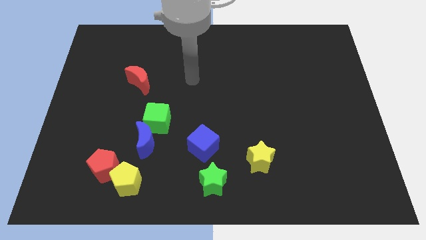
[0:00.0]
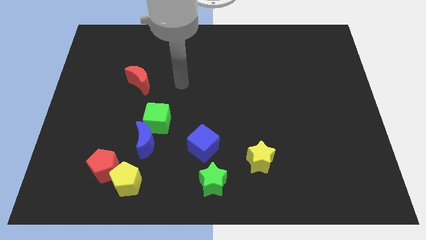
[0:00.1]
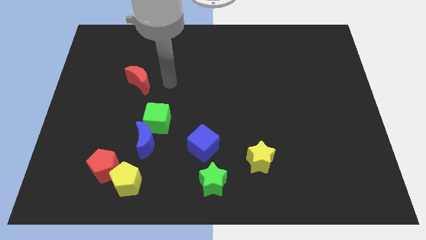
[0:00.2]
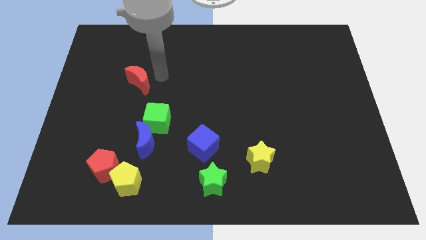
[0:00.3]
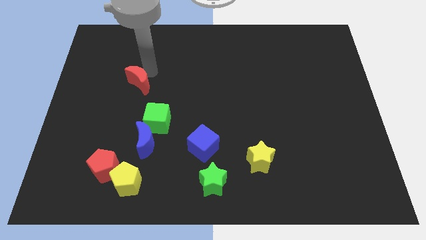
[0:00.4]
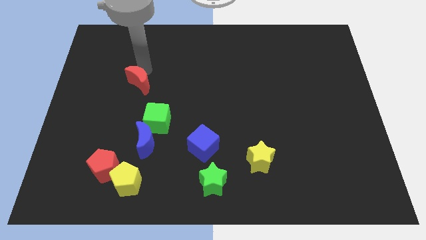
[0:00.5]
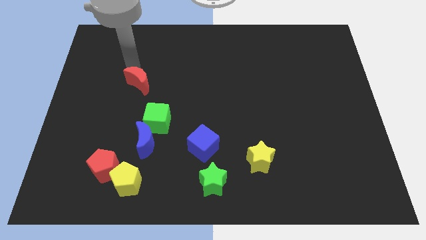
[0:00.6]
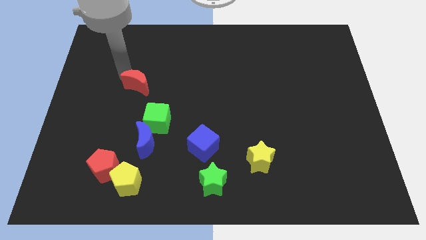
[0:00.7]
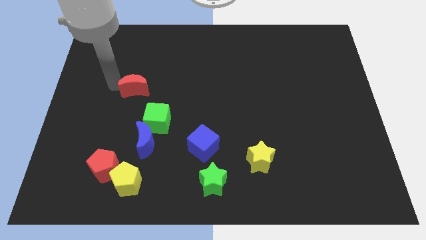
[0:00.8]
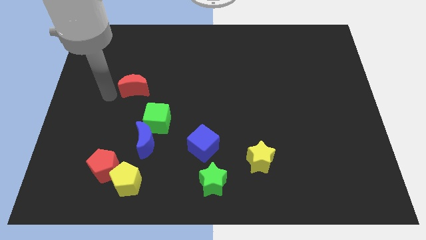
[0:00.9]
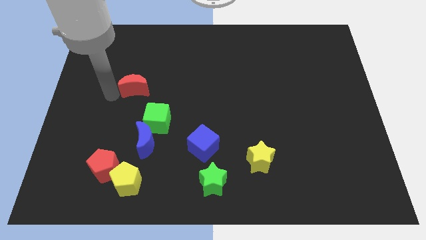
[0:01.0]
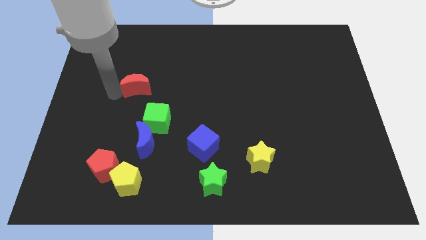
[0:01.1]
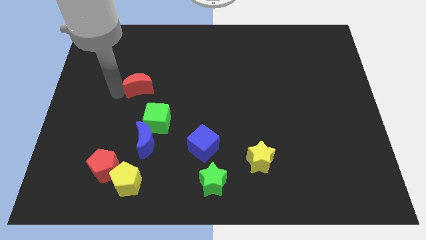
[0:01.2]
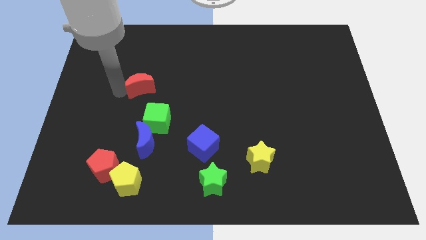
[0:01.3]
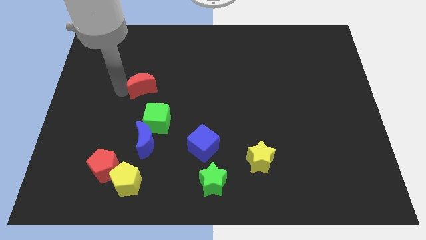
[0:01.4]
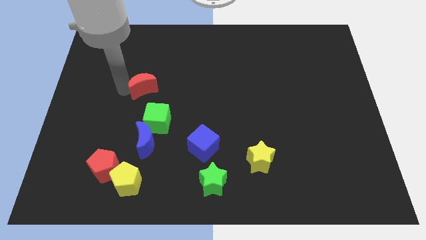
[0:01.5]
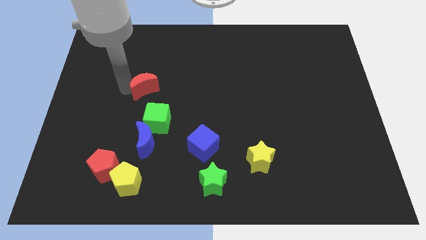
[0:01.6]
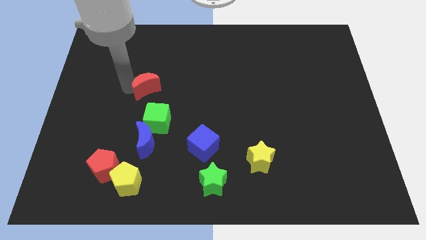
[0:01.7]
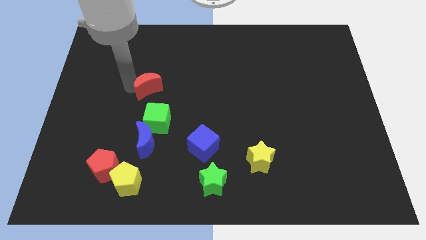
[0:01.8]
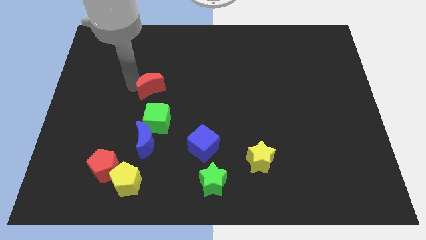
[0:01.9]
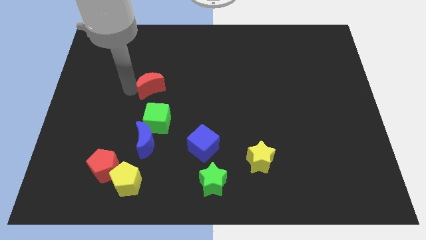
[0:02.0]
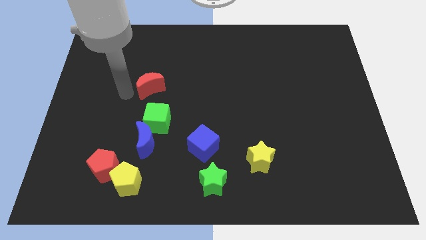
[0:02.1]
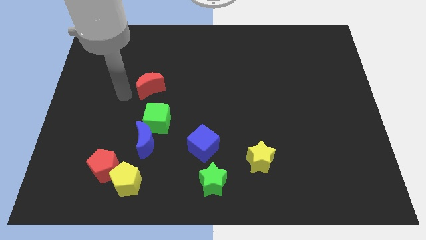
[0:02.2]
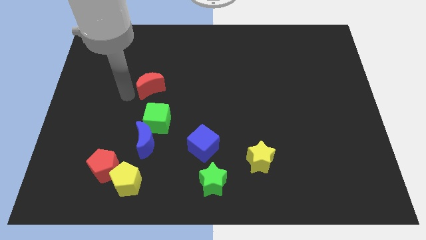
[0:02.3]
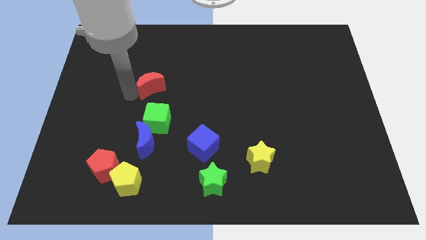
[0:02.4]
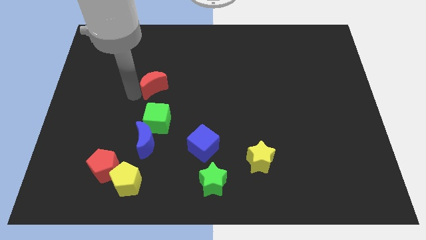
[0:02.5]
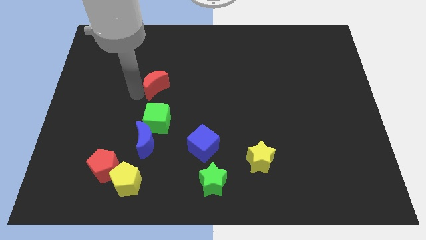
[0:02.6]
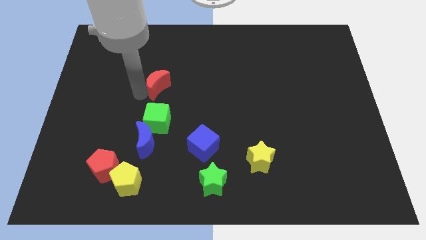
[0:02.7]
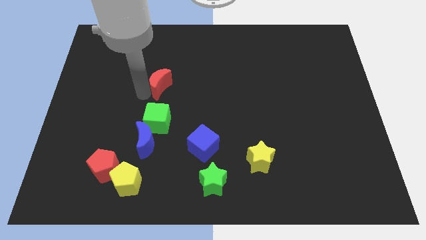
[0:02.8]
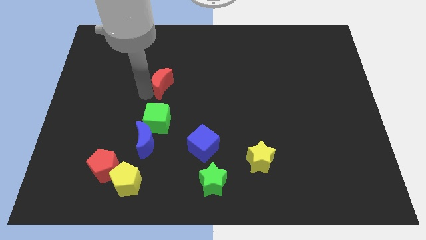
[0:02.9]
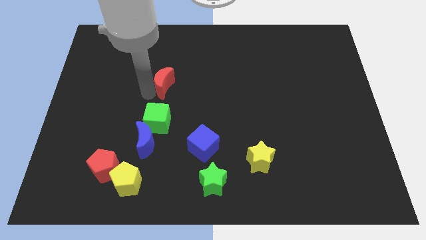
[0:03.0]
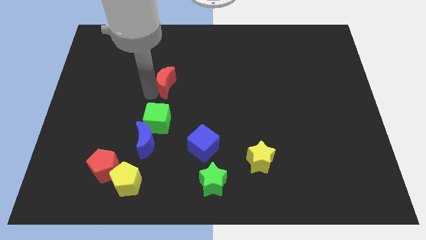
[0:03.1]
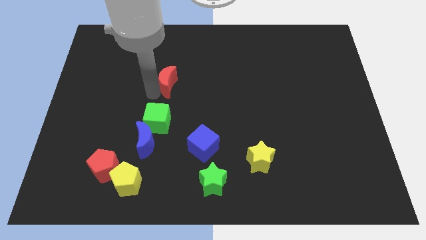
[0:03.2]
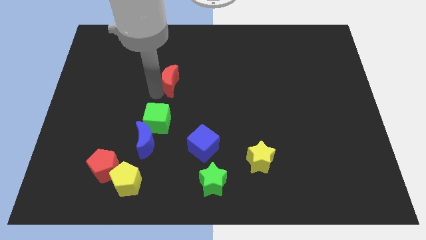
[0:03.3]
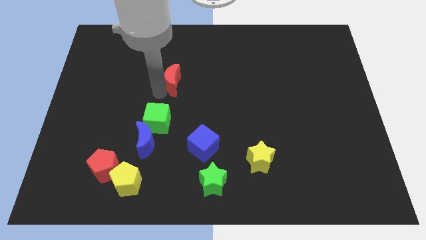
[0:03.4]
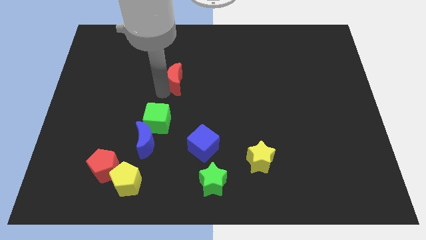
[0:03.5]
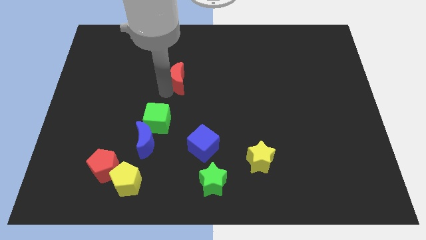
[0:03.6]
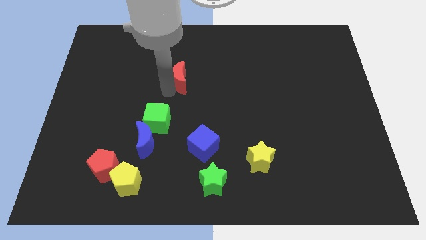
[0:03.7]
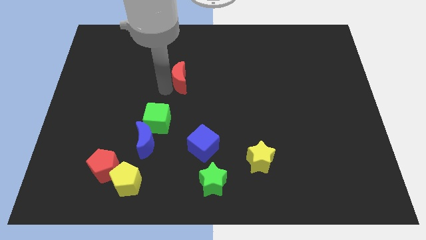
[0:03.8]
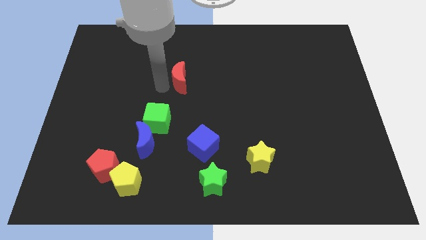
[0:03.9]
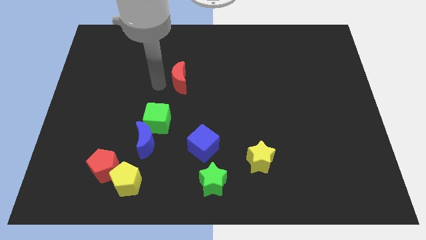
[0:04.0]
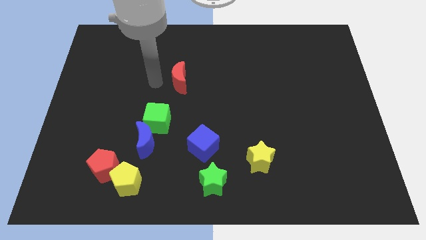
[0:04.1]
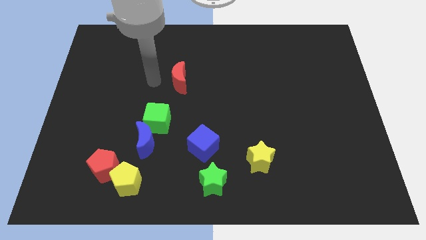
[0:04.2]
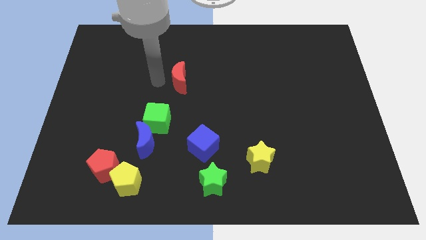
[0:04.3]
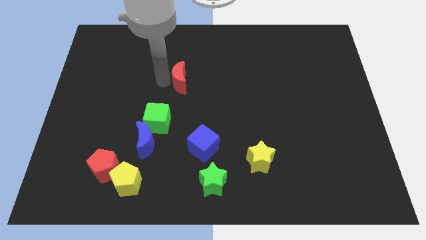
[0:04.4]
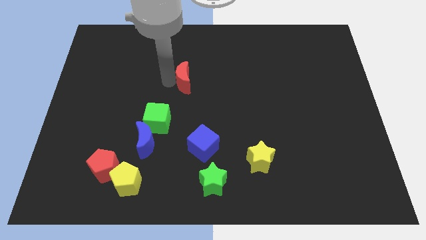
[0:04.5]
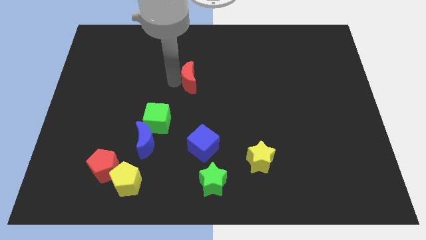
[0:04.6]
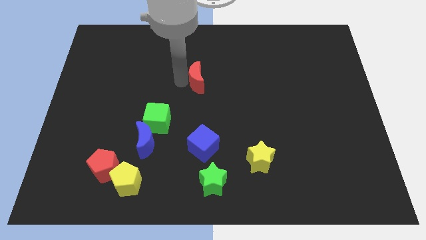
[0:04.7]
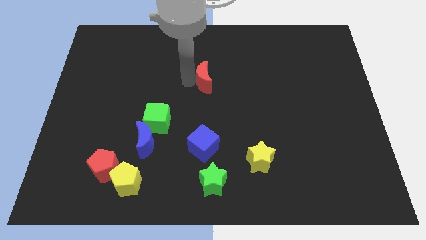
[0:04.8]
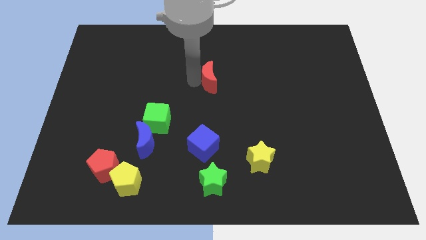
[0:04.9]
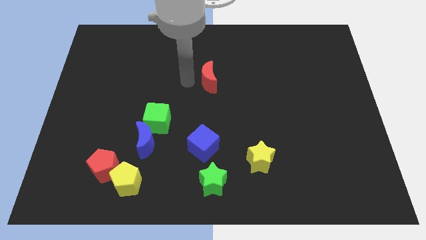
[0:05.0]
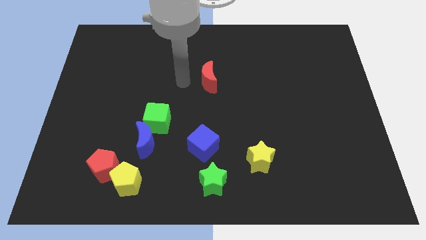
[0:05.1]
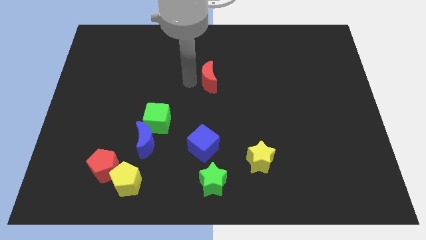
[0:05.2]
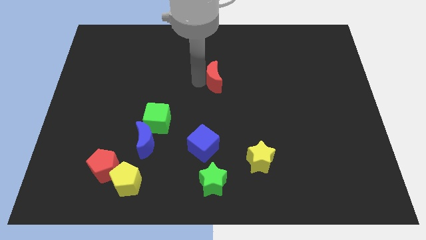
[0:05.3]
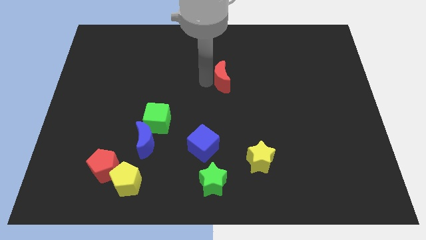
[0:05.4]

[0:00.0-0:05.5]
move the red moon to the right

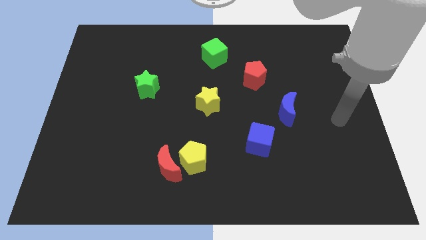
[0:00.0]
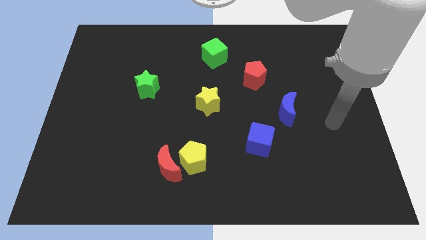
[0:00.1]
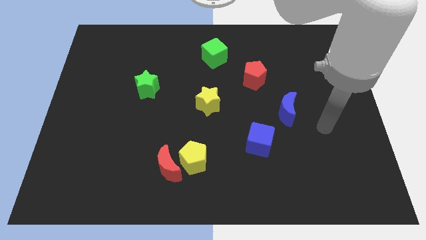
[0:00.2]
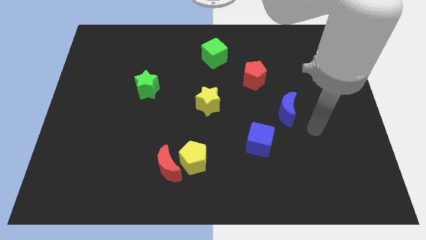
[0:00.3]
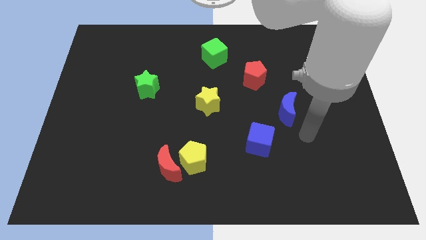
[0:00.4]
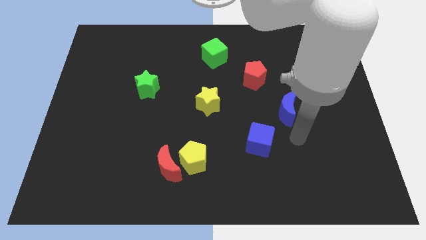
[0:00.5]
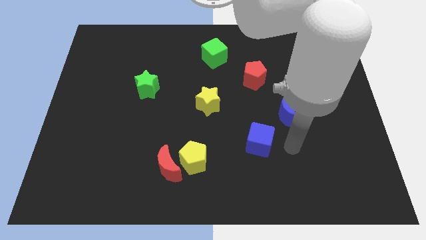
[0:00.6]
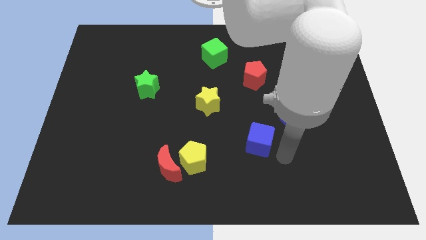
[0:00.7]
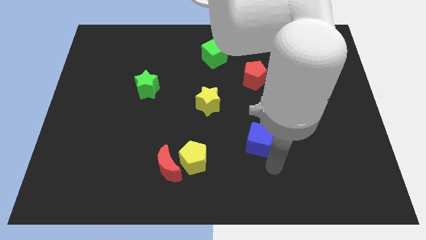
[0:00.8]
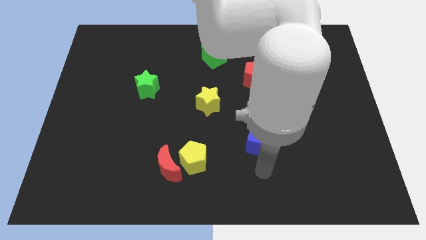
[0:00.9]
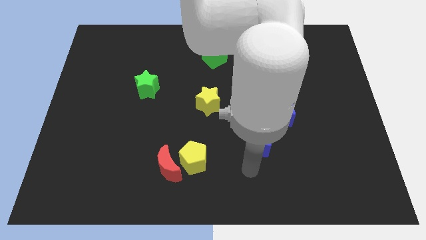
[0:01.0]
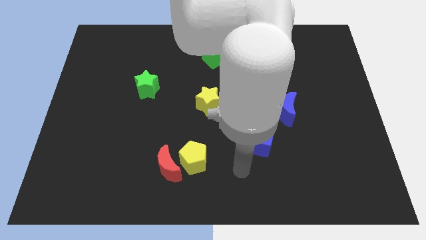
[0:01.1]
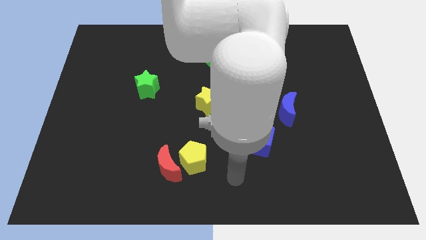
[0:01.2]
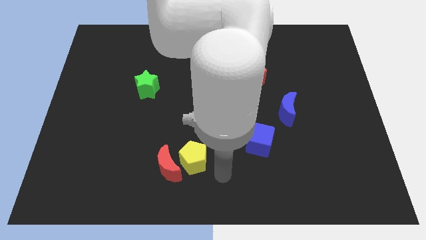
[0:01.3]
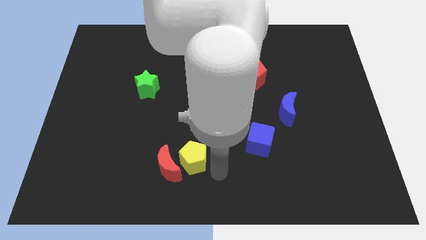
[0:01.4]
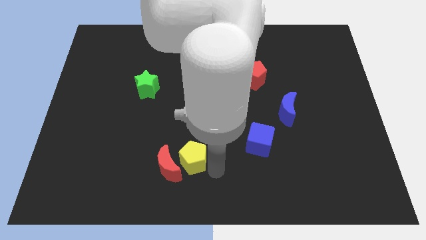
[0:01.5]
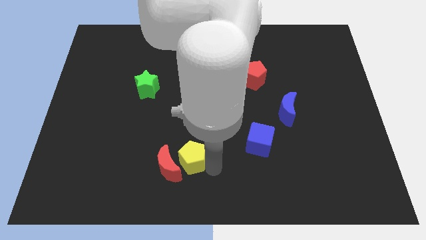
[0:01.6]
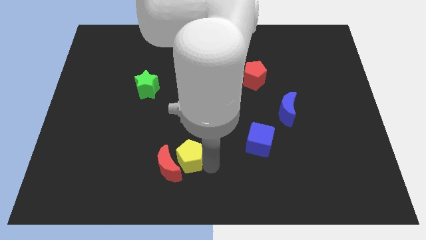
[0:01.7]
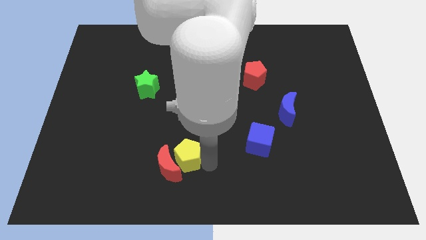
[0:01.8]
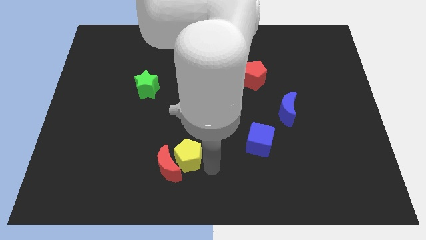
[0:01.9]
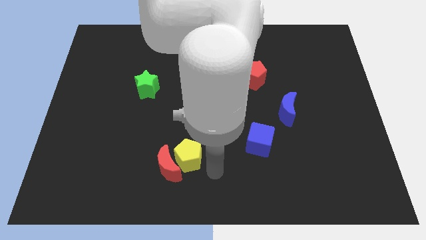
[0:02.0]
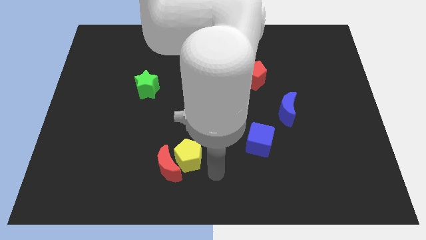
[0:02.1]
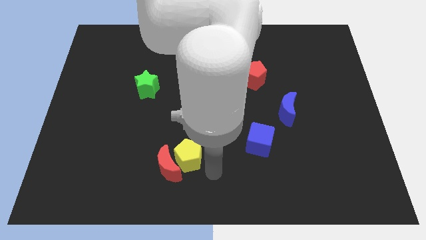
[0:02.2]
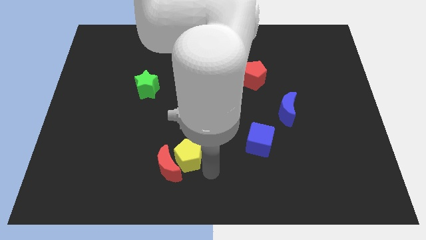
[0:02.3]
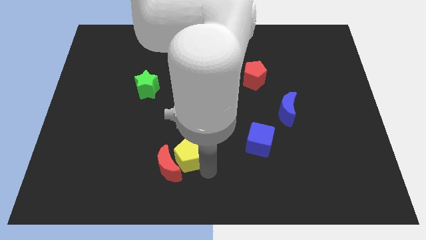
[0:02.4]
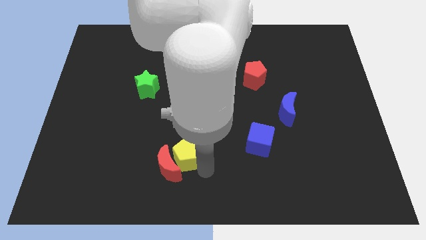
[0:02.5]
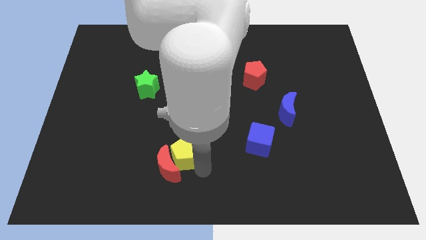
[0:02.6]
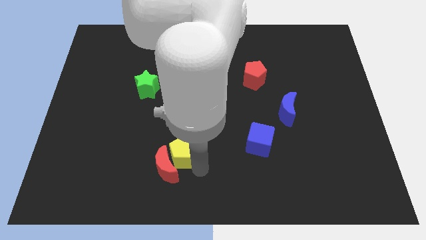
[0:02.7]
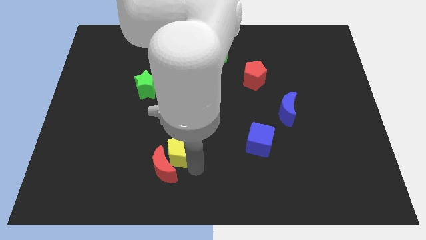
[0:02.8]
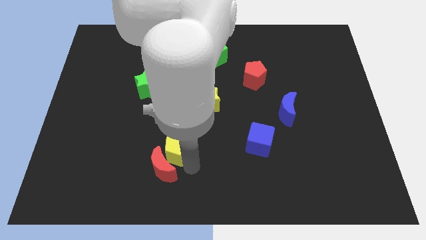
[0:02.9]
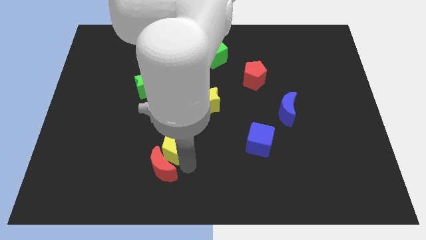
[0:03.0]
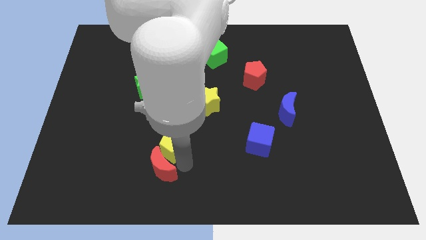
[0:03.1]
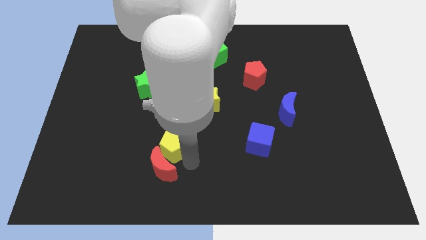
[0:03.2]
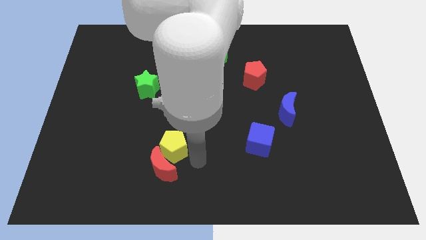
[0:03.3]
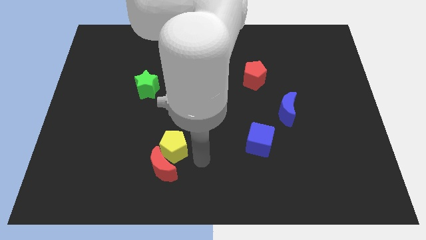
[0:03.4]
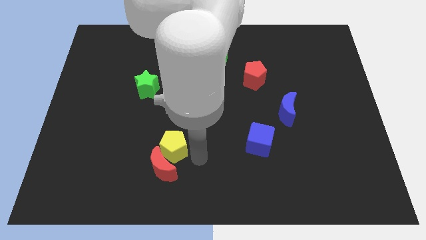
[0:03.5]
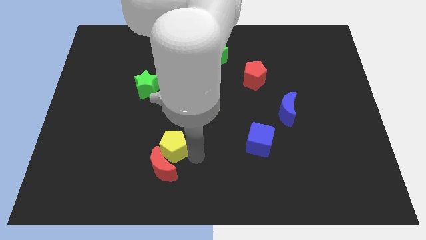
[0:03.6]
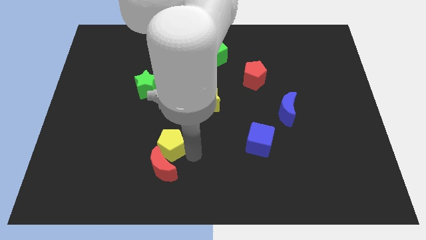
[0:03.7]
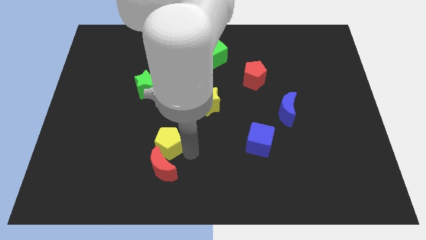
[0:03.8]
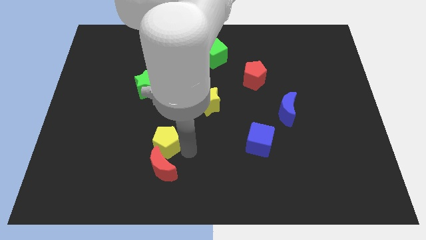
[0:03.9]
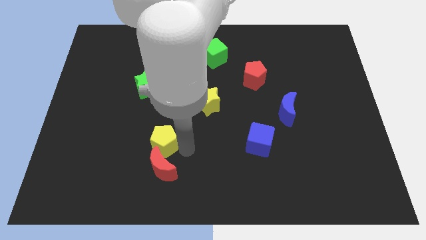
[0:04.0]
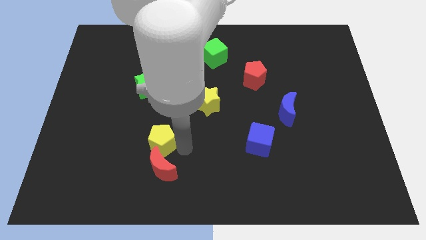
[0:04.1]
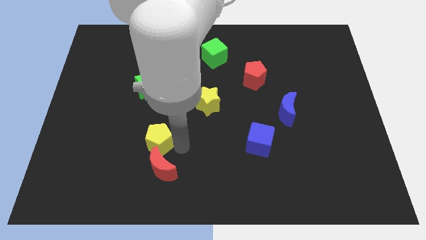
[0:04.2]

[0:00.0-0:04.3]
slightly move the yellow pentagon left
